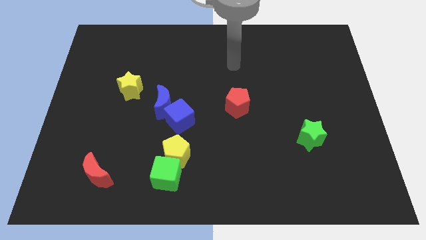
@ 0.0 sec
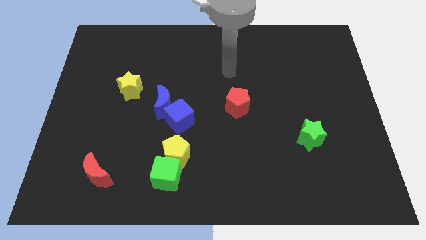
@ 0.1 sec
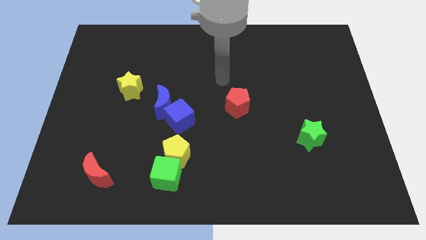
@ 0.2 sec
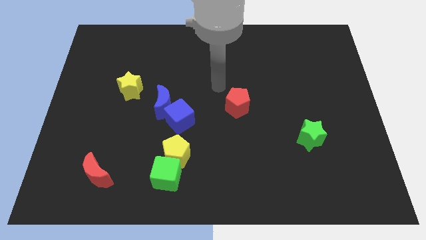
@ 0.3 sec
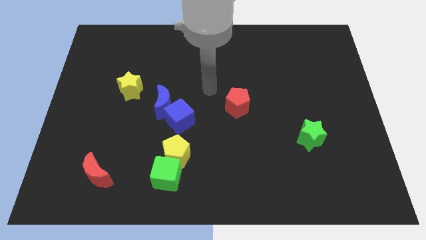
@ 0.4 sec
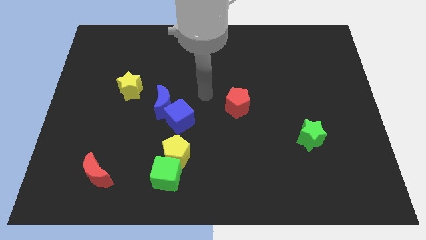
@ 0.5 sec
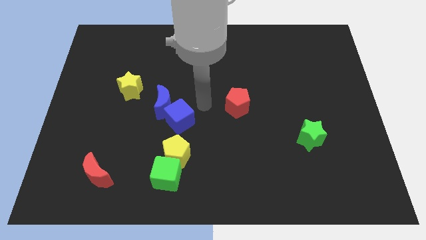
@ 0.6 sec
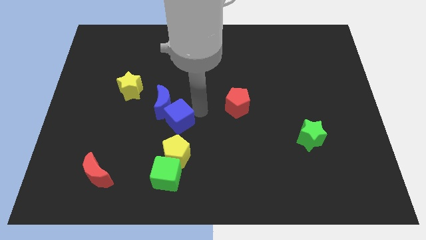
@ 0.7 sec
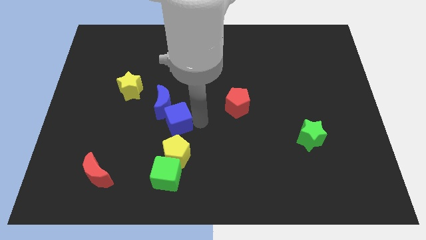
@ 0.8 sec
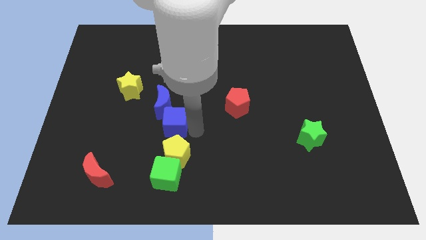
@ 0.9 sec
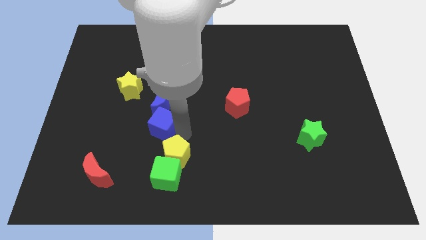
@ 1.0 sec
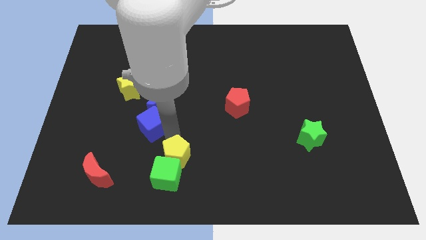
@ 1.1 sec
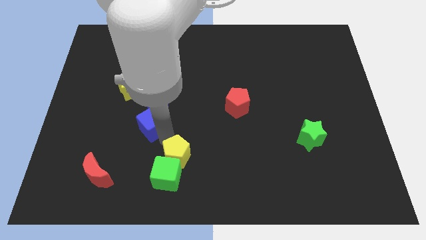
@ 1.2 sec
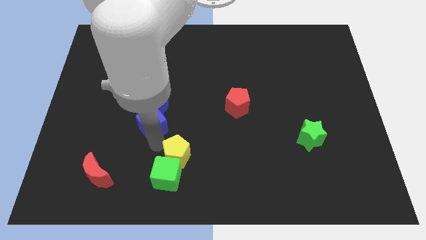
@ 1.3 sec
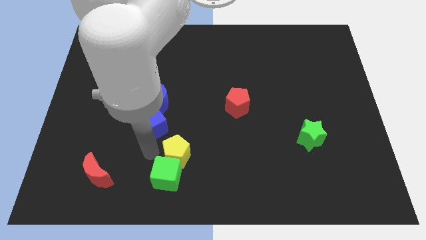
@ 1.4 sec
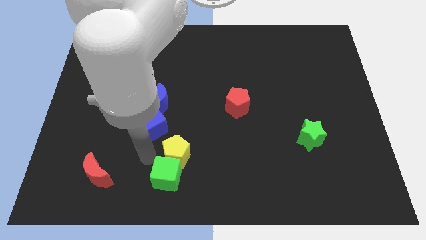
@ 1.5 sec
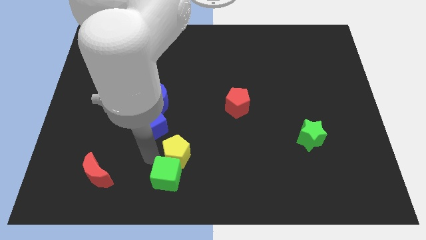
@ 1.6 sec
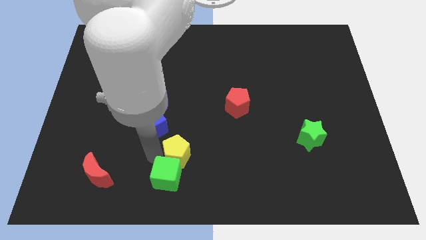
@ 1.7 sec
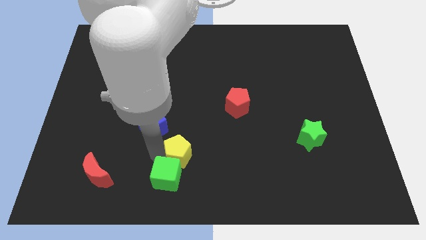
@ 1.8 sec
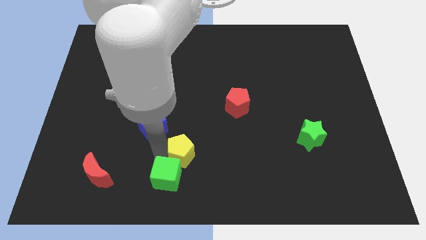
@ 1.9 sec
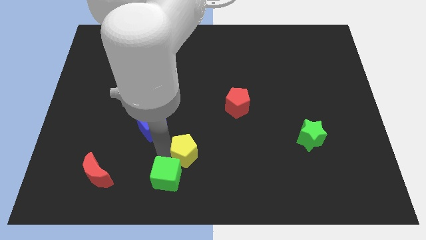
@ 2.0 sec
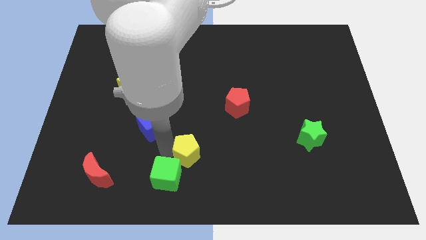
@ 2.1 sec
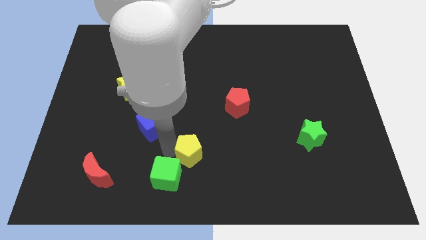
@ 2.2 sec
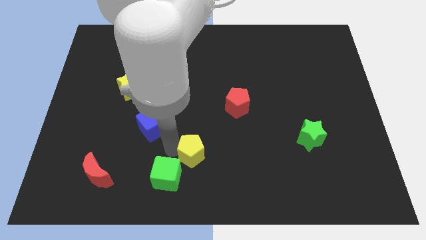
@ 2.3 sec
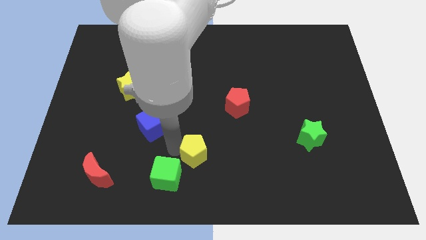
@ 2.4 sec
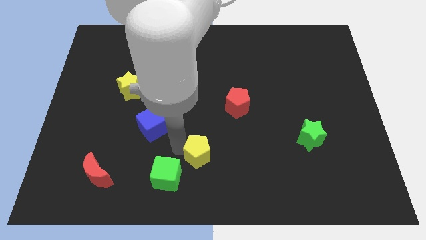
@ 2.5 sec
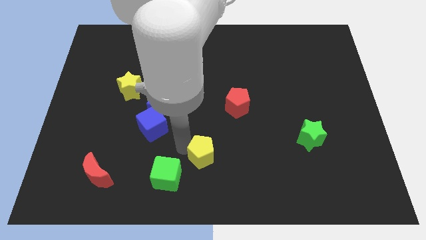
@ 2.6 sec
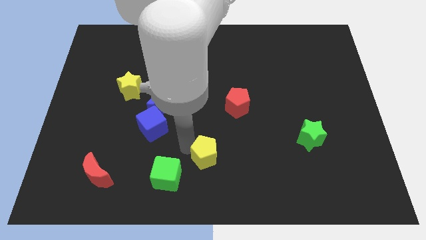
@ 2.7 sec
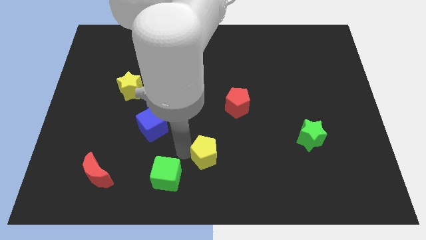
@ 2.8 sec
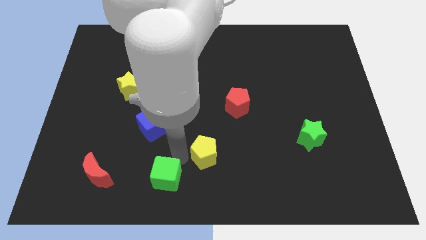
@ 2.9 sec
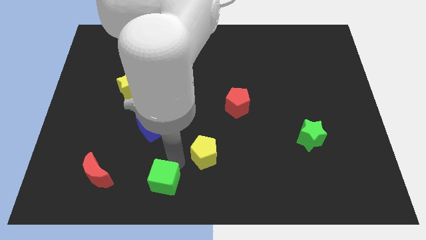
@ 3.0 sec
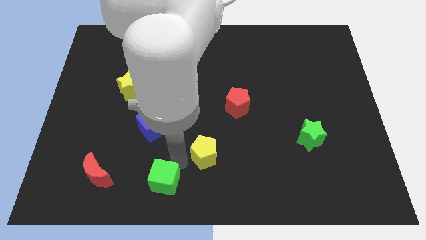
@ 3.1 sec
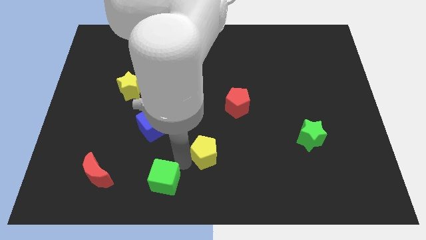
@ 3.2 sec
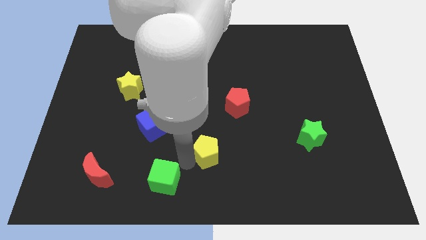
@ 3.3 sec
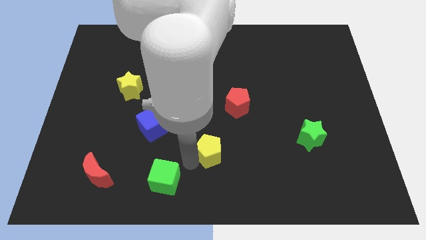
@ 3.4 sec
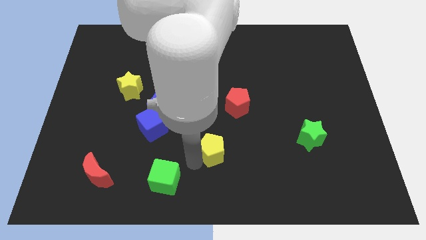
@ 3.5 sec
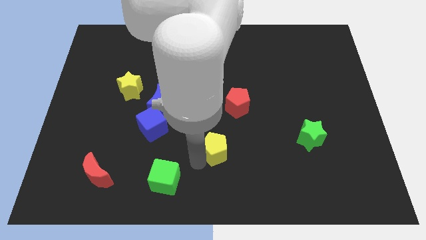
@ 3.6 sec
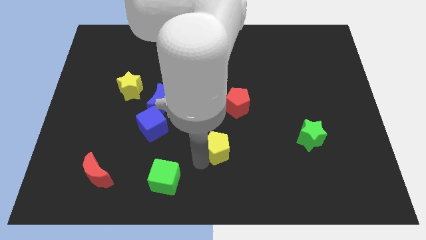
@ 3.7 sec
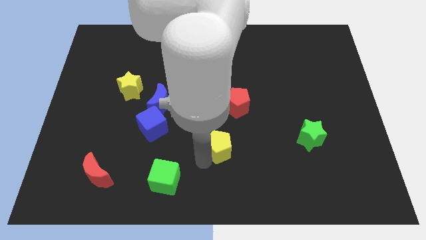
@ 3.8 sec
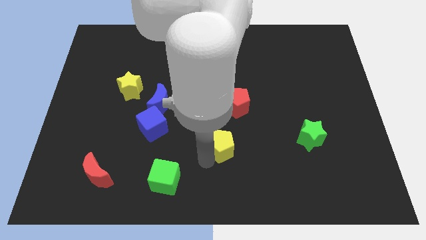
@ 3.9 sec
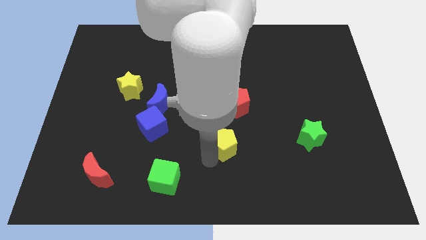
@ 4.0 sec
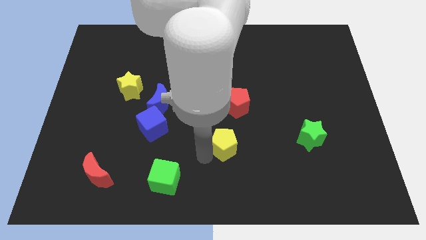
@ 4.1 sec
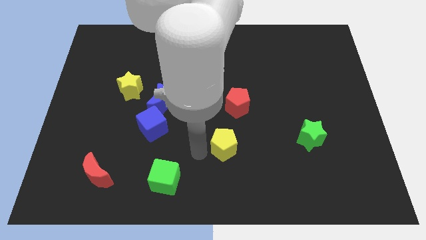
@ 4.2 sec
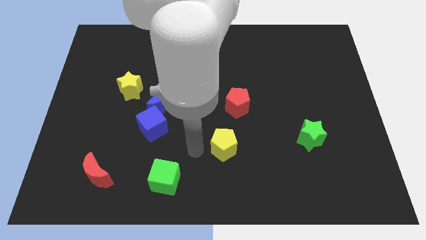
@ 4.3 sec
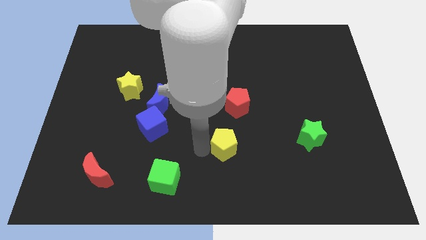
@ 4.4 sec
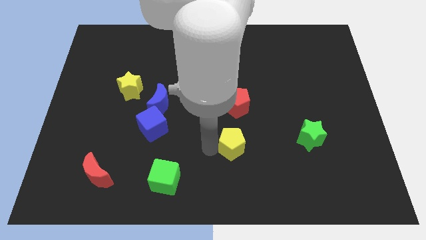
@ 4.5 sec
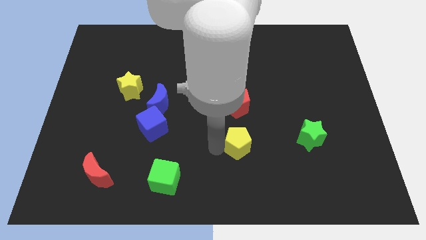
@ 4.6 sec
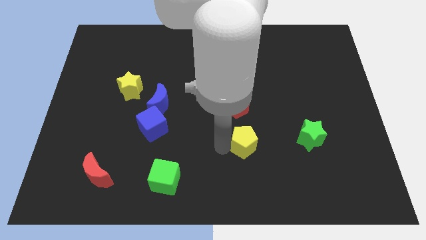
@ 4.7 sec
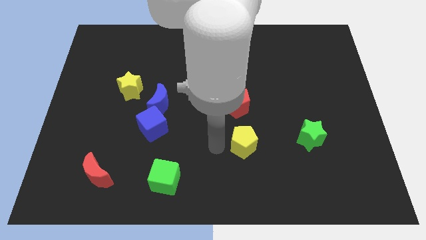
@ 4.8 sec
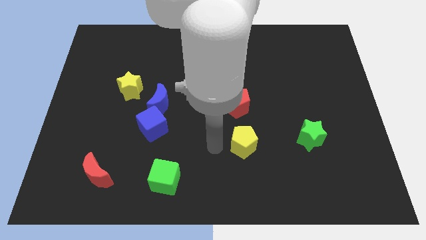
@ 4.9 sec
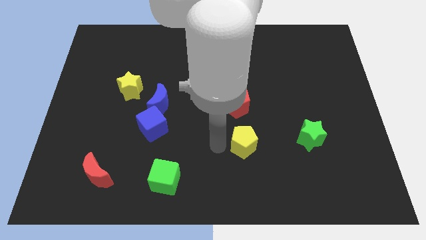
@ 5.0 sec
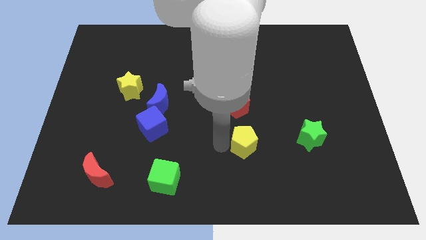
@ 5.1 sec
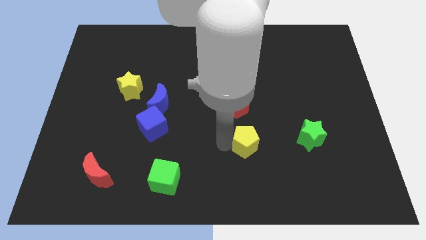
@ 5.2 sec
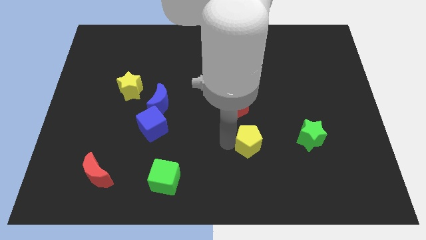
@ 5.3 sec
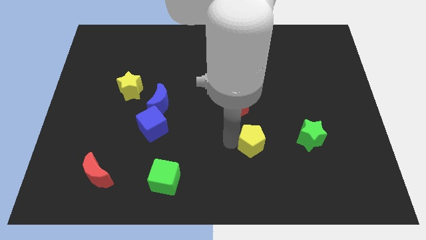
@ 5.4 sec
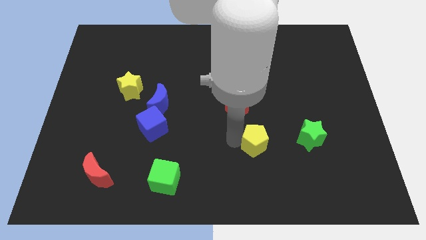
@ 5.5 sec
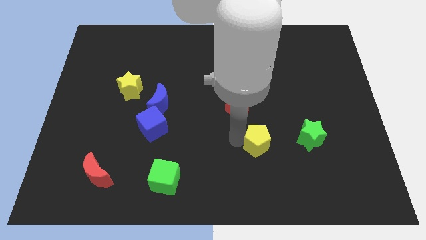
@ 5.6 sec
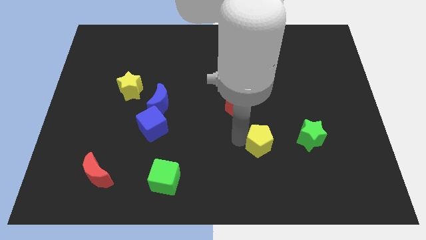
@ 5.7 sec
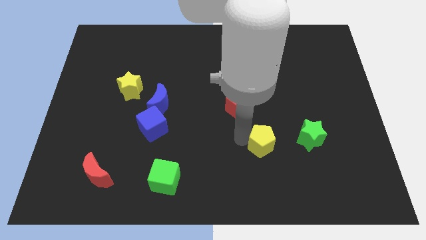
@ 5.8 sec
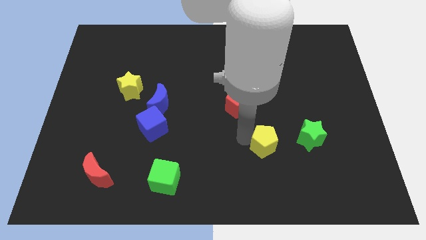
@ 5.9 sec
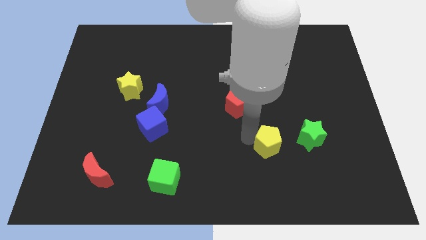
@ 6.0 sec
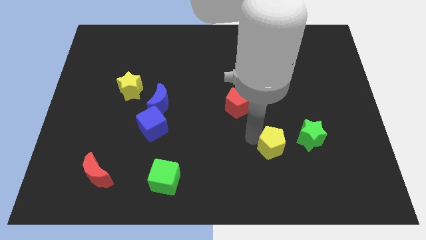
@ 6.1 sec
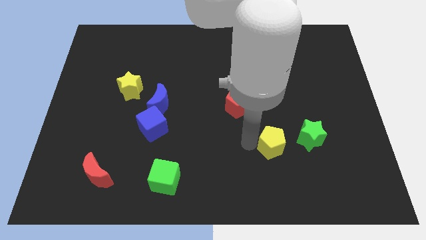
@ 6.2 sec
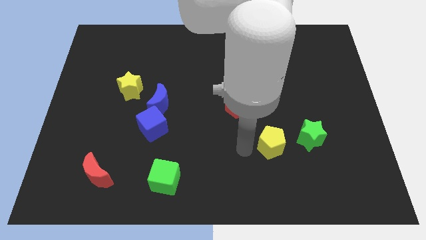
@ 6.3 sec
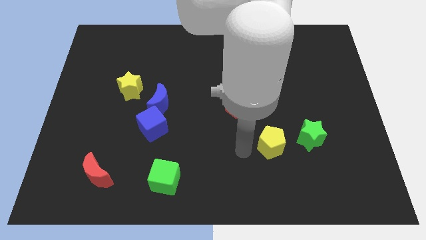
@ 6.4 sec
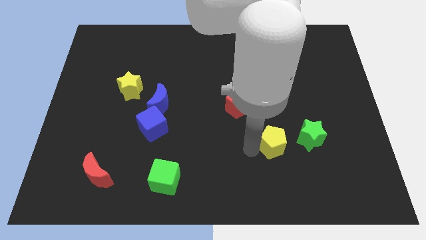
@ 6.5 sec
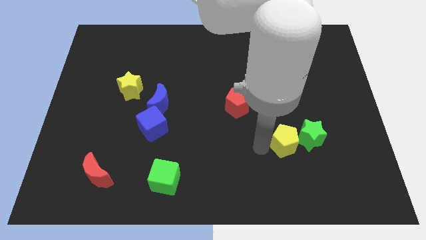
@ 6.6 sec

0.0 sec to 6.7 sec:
move the yellow pentagon next to the green star

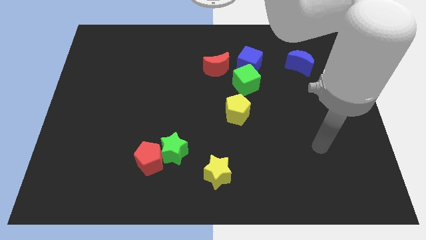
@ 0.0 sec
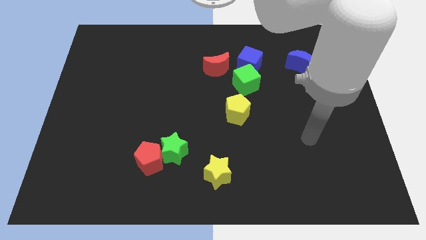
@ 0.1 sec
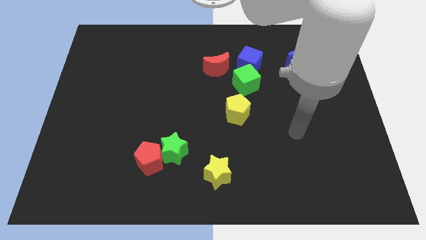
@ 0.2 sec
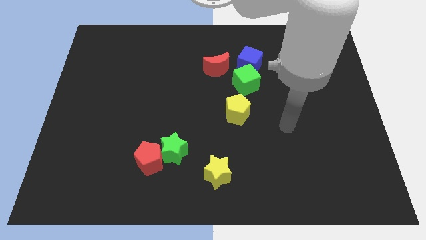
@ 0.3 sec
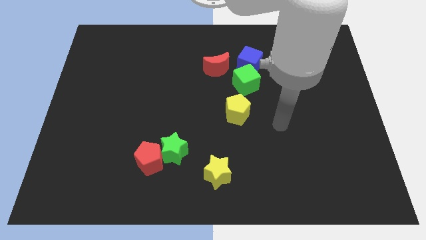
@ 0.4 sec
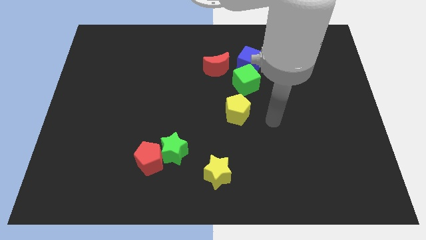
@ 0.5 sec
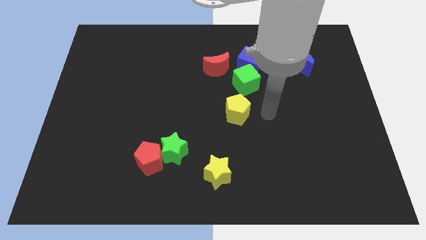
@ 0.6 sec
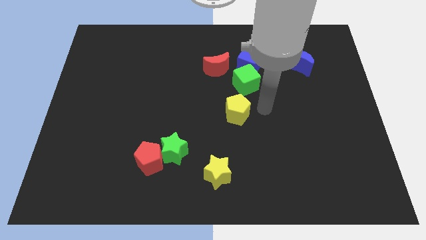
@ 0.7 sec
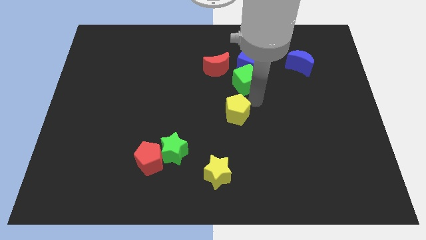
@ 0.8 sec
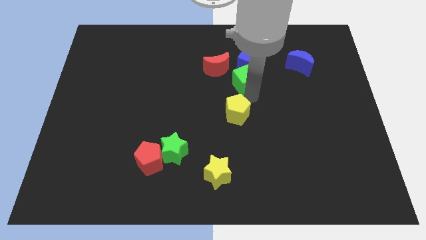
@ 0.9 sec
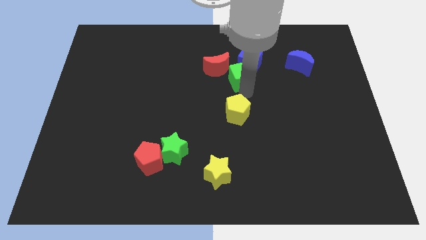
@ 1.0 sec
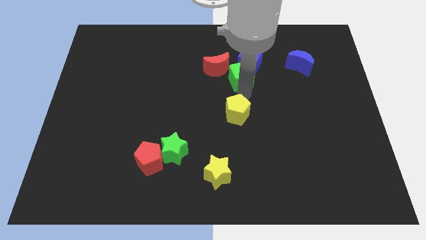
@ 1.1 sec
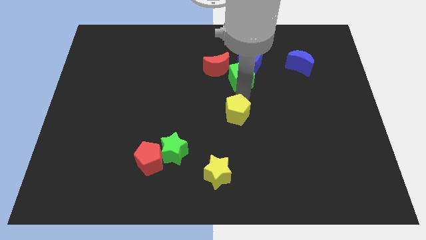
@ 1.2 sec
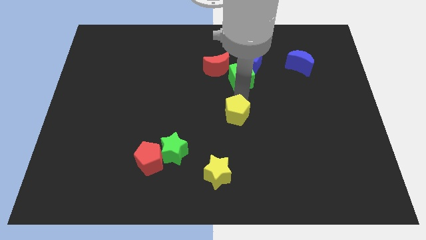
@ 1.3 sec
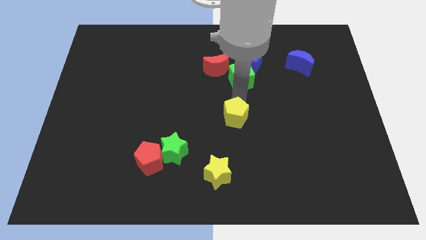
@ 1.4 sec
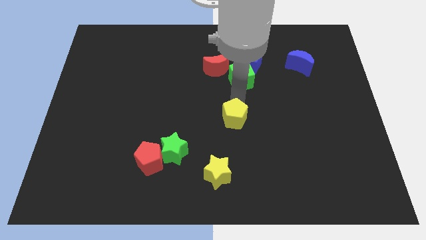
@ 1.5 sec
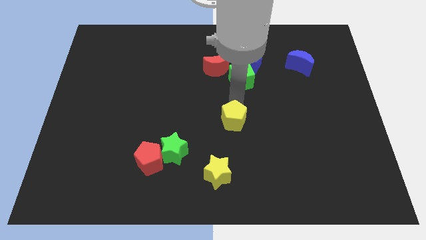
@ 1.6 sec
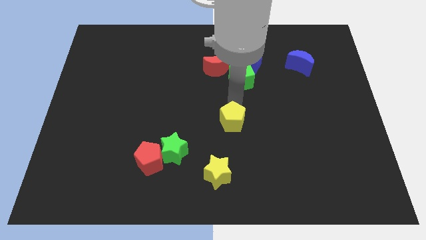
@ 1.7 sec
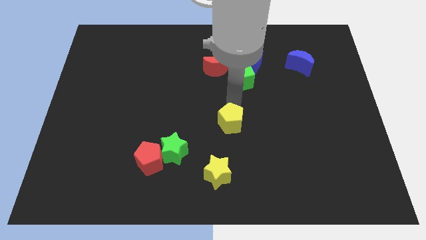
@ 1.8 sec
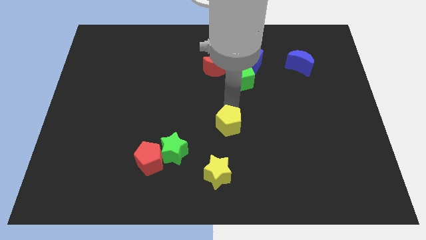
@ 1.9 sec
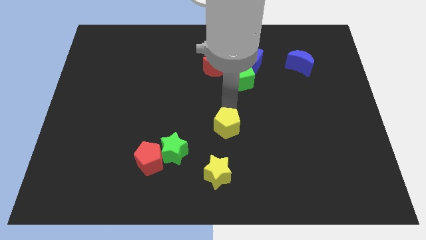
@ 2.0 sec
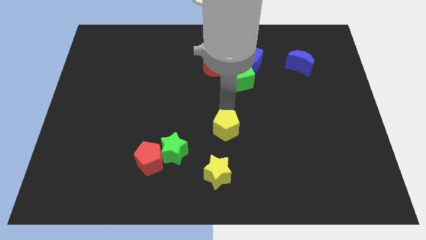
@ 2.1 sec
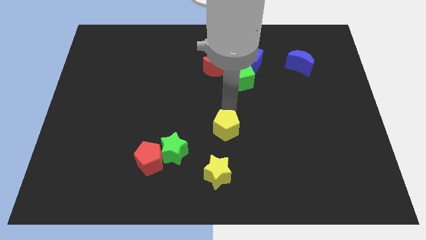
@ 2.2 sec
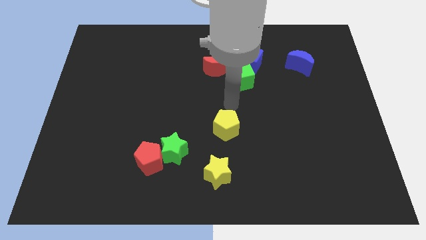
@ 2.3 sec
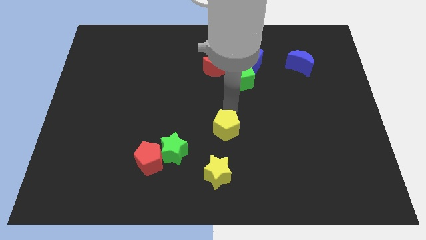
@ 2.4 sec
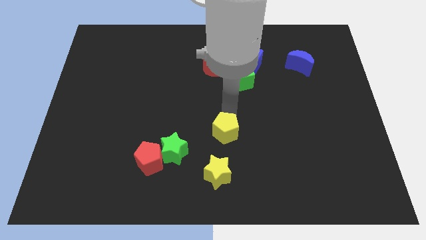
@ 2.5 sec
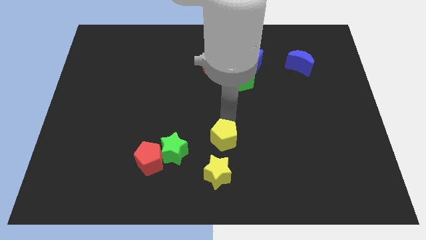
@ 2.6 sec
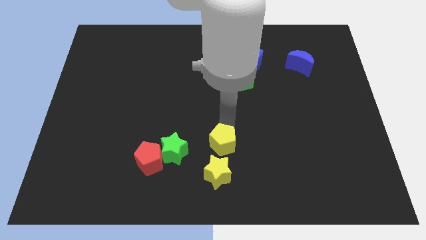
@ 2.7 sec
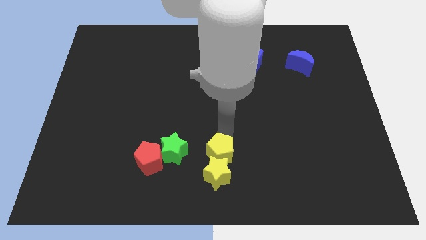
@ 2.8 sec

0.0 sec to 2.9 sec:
put the yellow pentagon next to the yellow star
